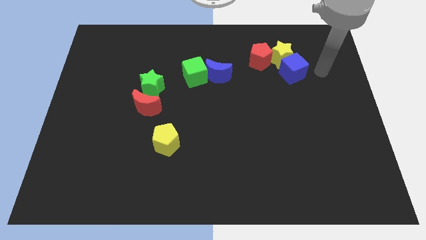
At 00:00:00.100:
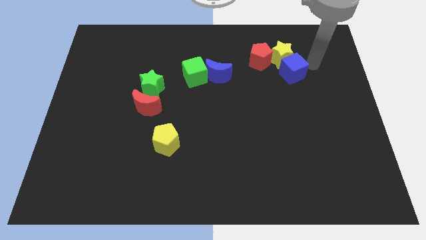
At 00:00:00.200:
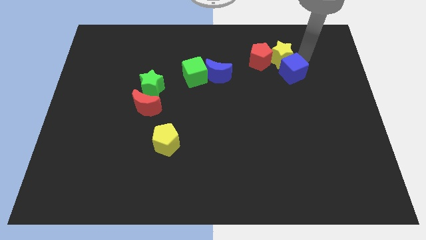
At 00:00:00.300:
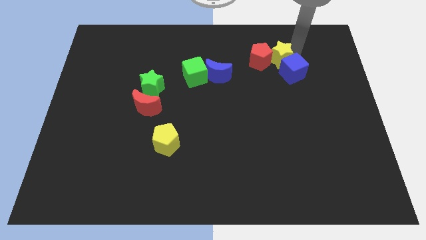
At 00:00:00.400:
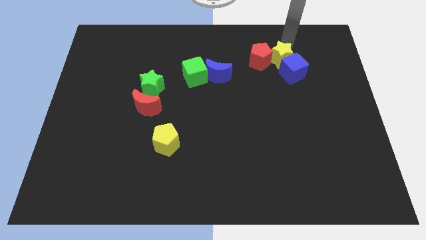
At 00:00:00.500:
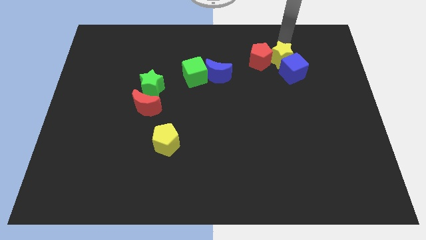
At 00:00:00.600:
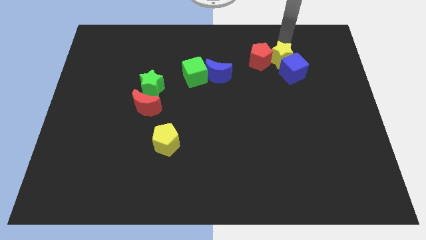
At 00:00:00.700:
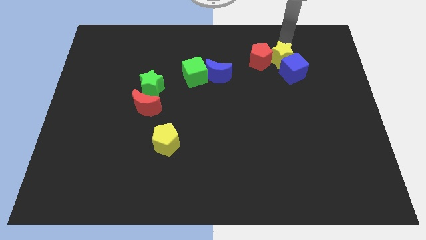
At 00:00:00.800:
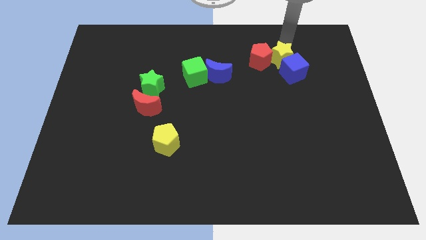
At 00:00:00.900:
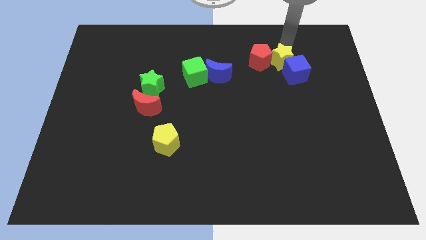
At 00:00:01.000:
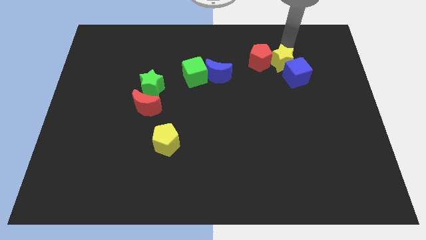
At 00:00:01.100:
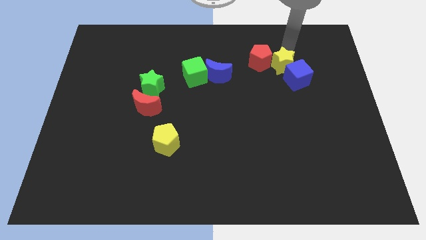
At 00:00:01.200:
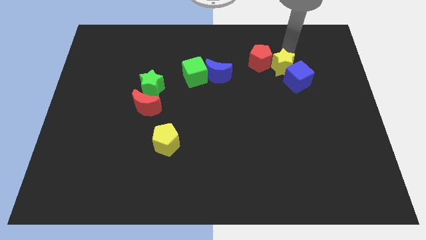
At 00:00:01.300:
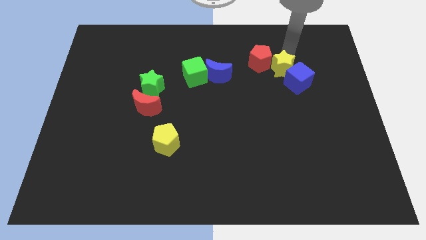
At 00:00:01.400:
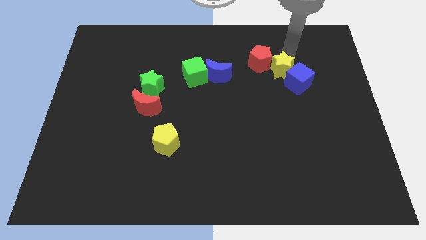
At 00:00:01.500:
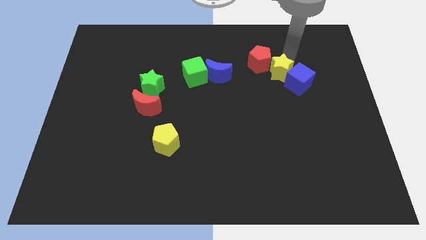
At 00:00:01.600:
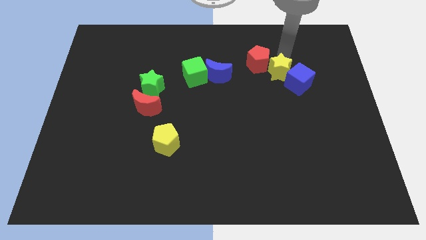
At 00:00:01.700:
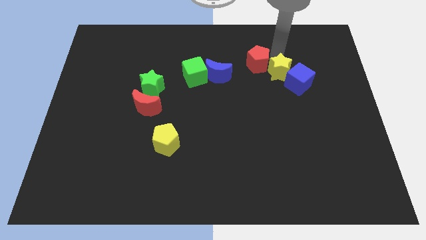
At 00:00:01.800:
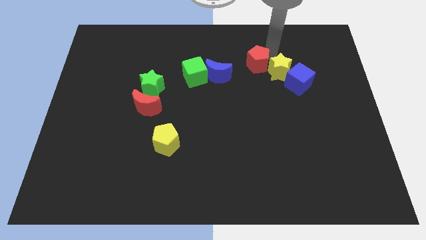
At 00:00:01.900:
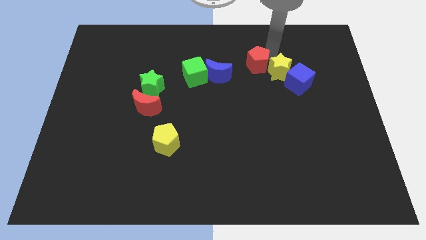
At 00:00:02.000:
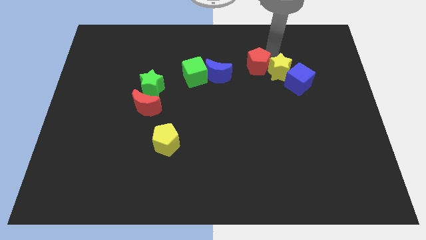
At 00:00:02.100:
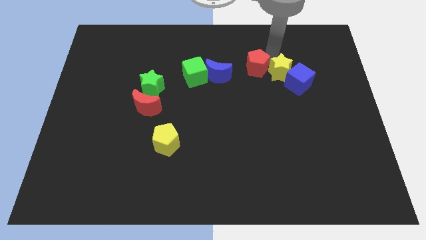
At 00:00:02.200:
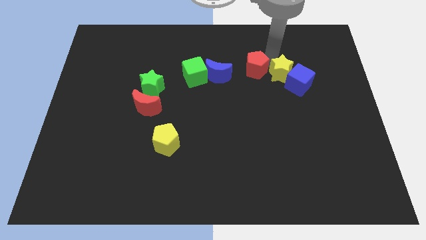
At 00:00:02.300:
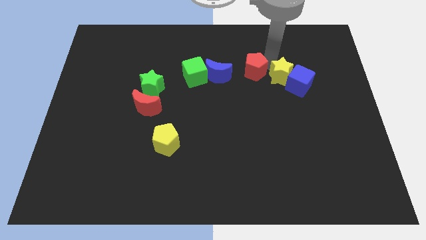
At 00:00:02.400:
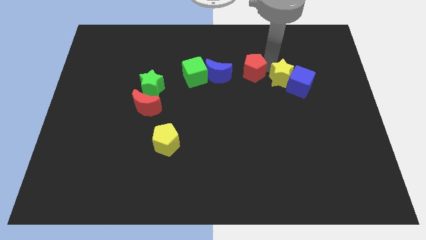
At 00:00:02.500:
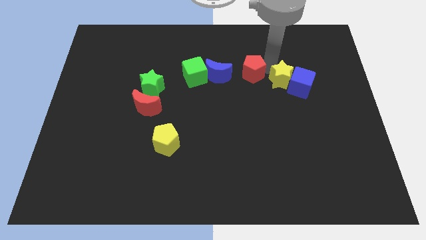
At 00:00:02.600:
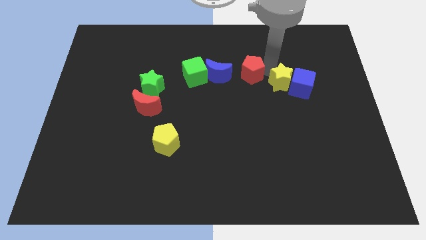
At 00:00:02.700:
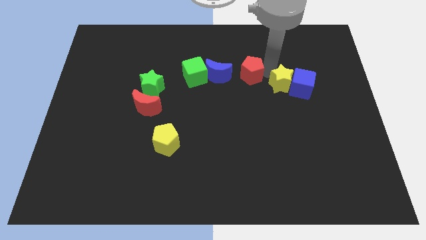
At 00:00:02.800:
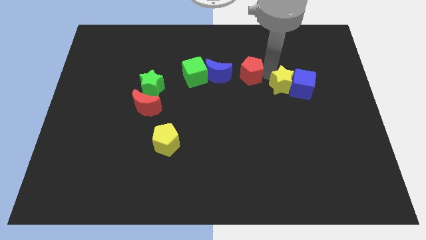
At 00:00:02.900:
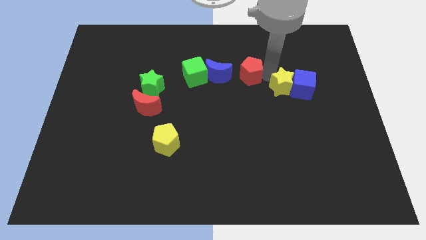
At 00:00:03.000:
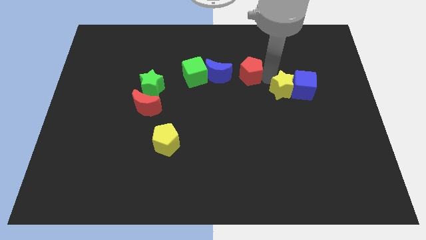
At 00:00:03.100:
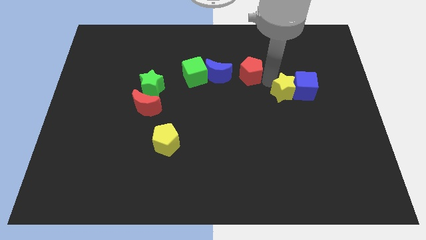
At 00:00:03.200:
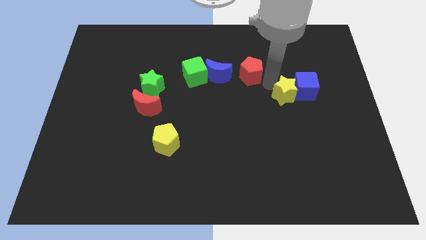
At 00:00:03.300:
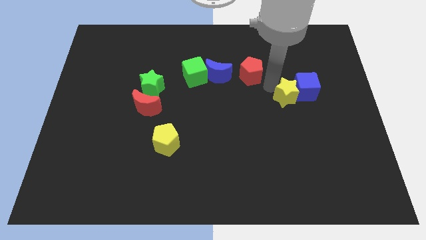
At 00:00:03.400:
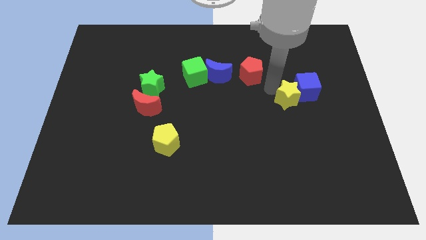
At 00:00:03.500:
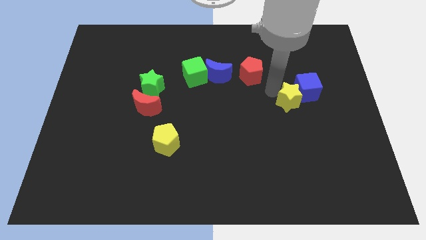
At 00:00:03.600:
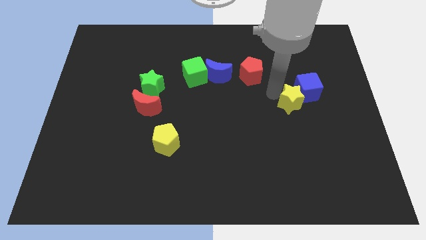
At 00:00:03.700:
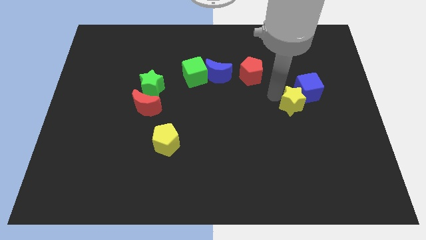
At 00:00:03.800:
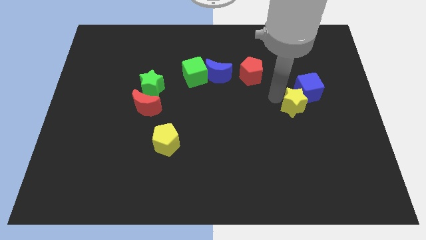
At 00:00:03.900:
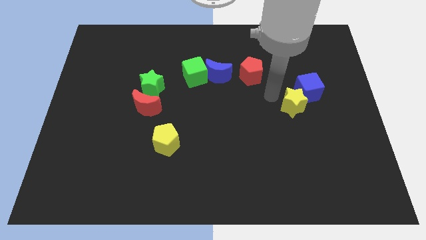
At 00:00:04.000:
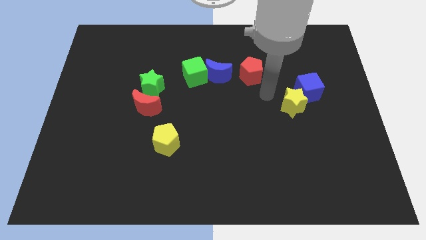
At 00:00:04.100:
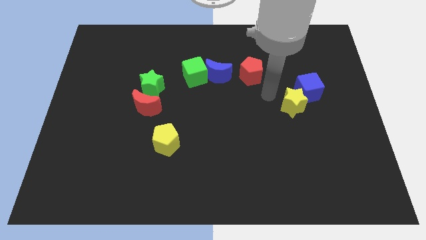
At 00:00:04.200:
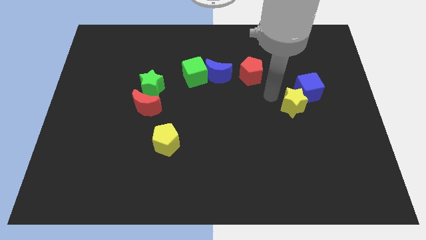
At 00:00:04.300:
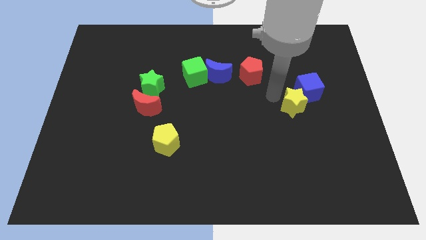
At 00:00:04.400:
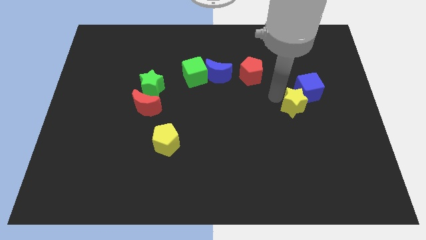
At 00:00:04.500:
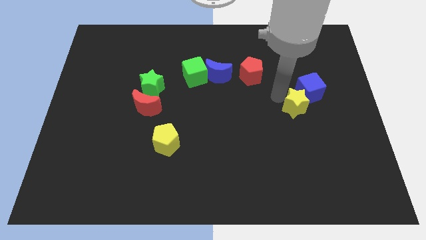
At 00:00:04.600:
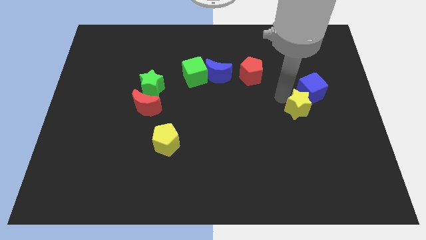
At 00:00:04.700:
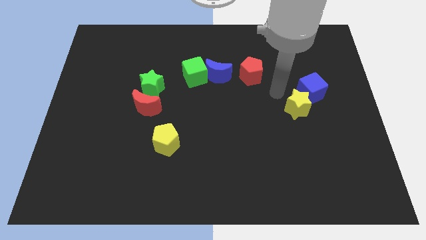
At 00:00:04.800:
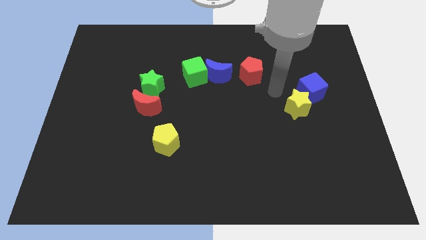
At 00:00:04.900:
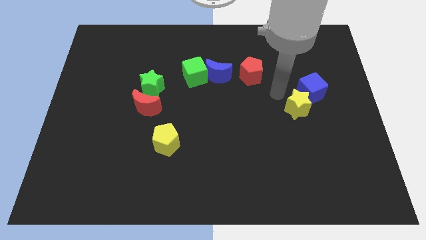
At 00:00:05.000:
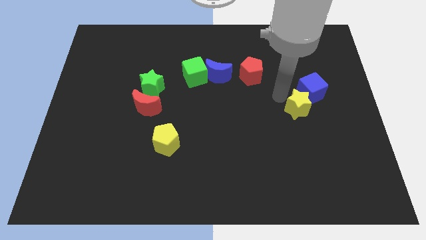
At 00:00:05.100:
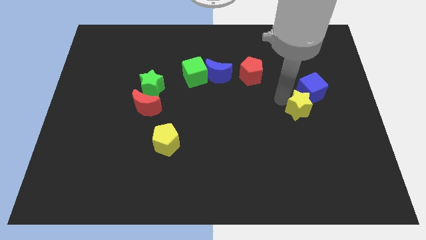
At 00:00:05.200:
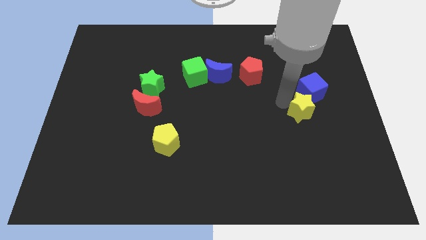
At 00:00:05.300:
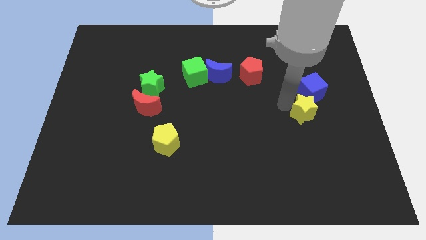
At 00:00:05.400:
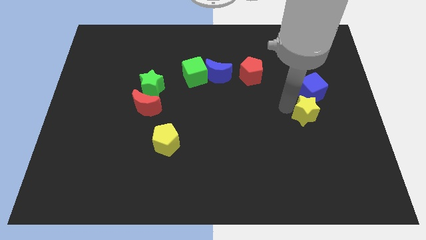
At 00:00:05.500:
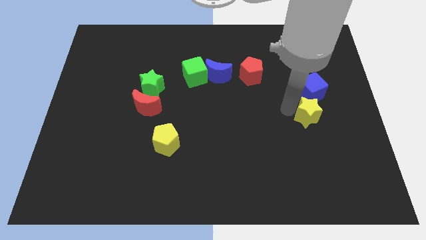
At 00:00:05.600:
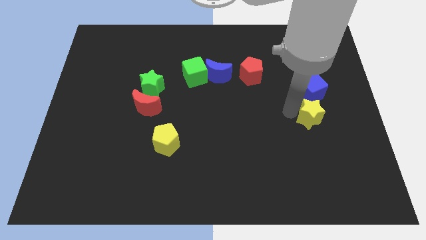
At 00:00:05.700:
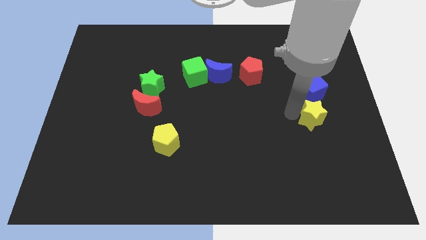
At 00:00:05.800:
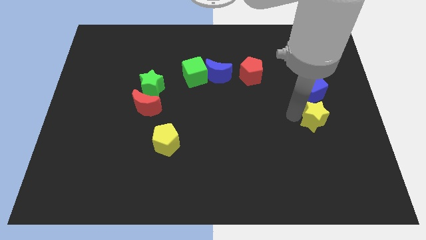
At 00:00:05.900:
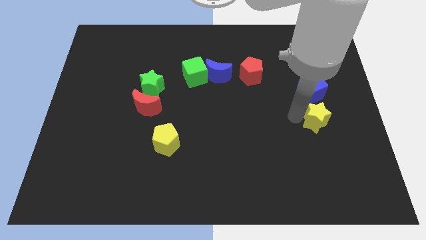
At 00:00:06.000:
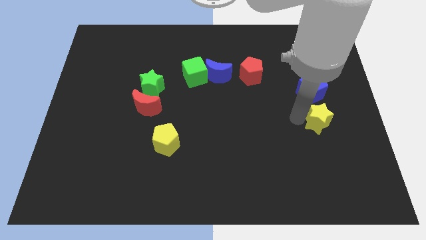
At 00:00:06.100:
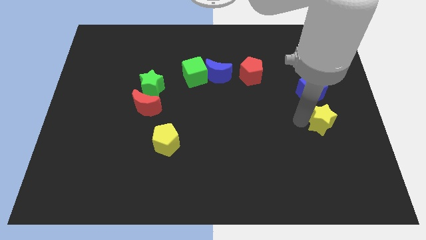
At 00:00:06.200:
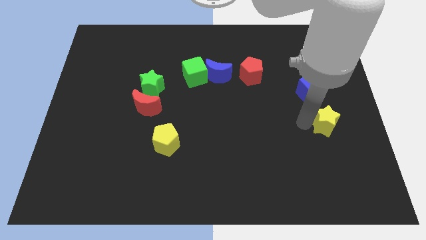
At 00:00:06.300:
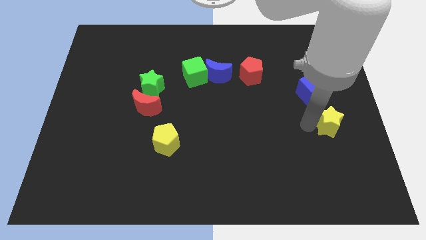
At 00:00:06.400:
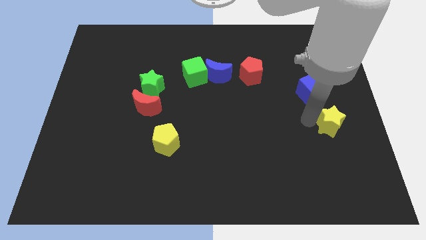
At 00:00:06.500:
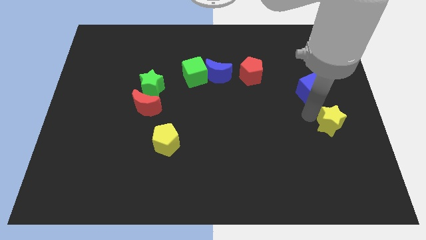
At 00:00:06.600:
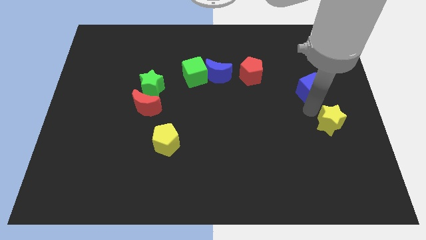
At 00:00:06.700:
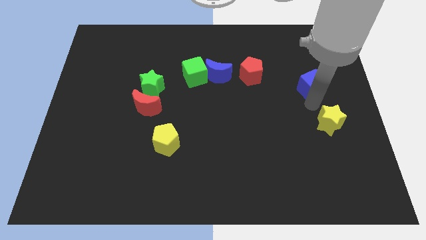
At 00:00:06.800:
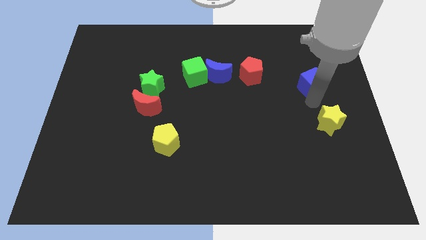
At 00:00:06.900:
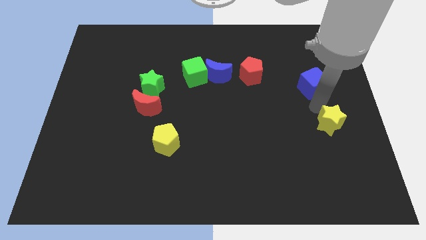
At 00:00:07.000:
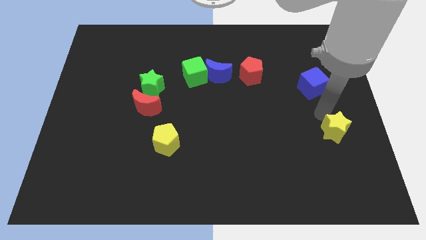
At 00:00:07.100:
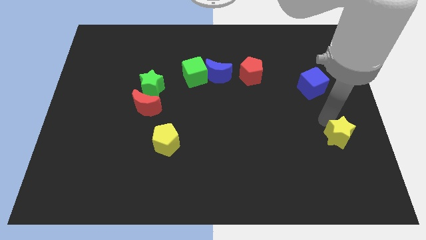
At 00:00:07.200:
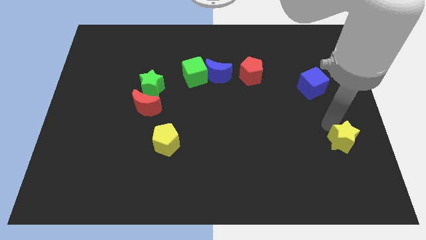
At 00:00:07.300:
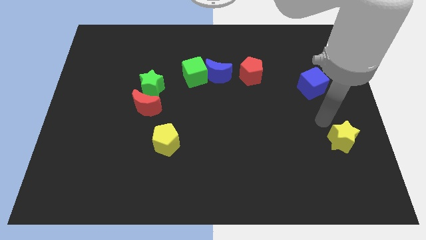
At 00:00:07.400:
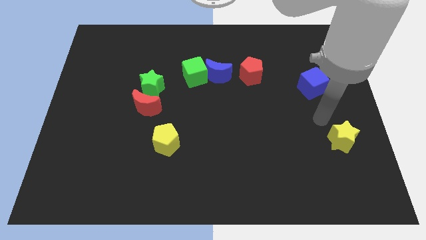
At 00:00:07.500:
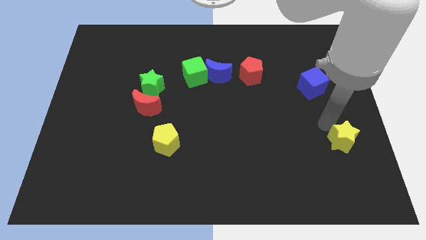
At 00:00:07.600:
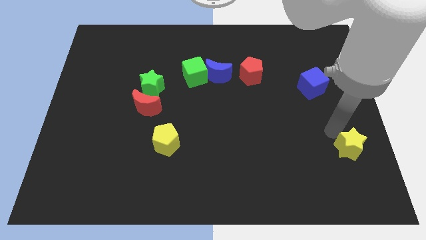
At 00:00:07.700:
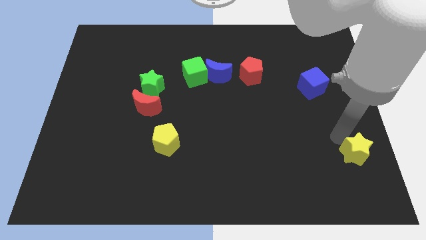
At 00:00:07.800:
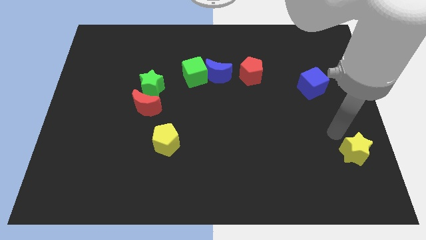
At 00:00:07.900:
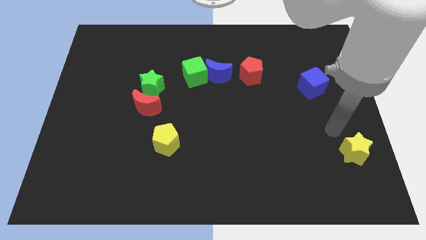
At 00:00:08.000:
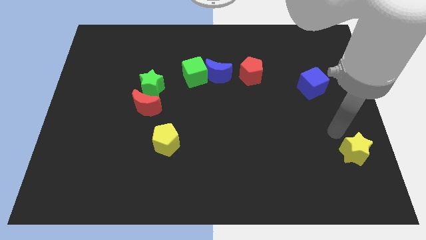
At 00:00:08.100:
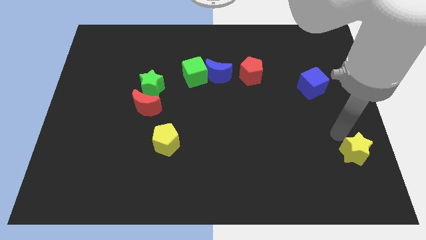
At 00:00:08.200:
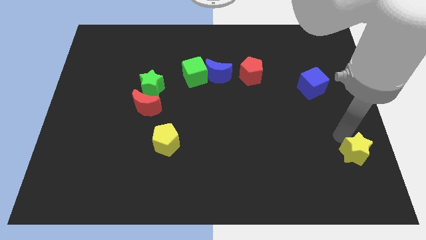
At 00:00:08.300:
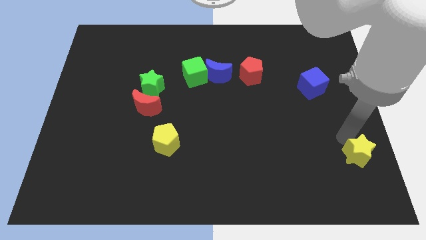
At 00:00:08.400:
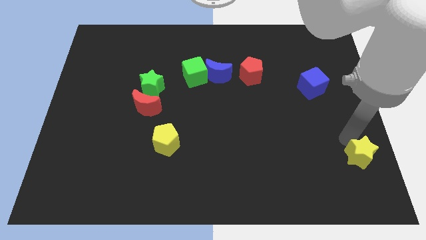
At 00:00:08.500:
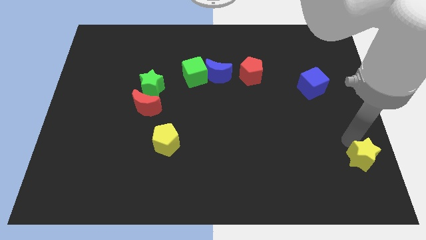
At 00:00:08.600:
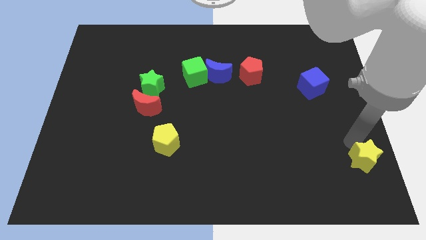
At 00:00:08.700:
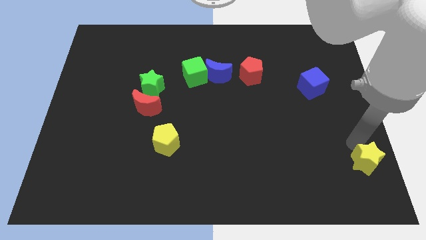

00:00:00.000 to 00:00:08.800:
move the yellow star to the bottom right of the board
